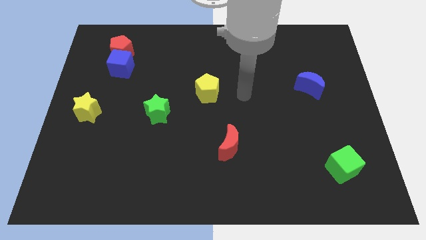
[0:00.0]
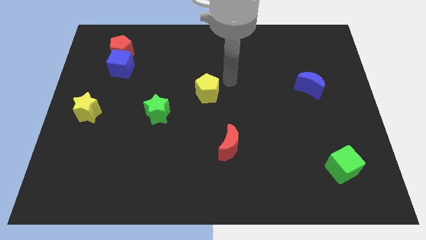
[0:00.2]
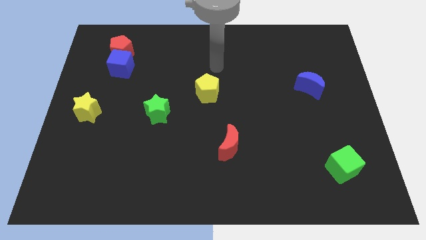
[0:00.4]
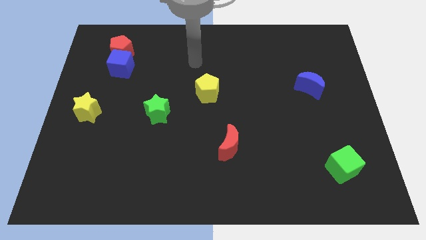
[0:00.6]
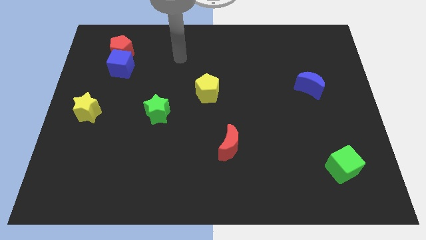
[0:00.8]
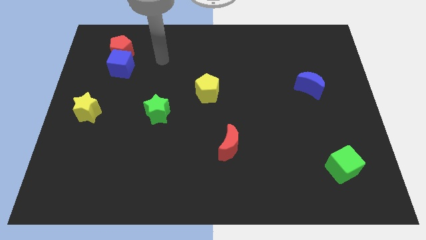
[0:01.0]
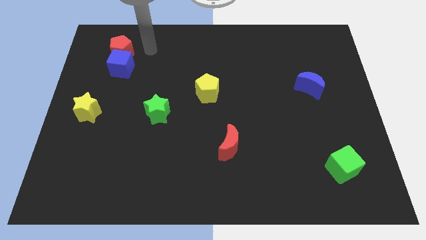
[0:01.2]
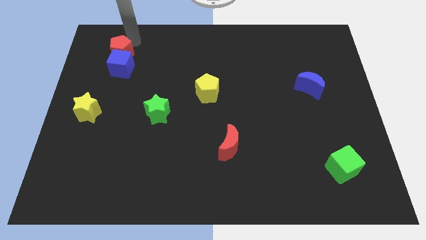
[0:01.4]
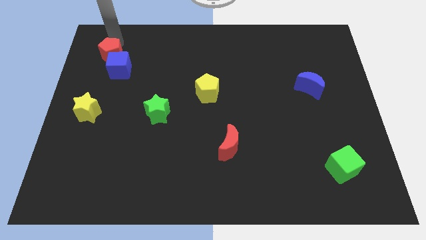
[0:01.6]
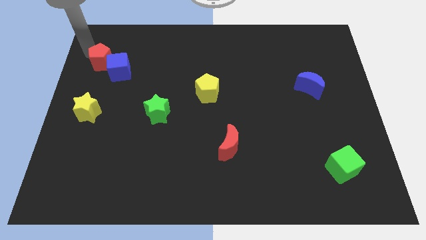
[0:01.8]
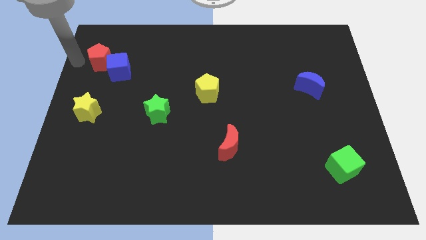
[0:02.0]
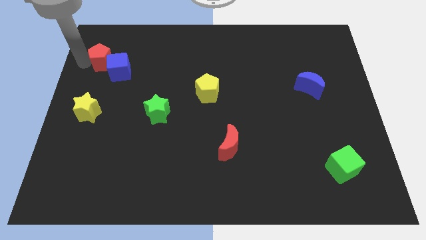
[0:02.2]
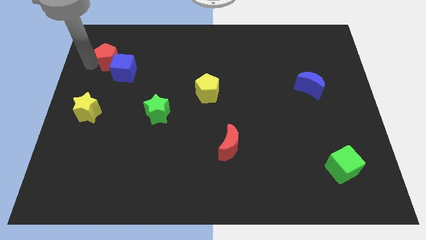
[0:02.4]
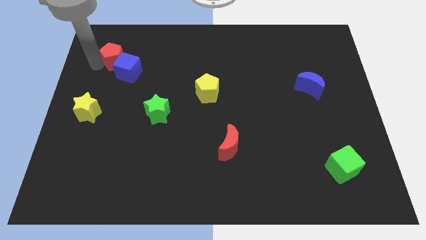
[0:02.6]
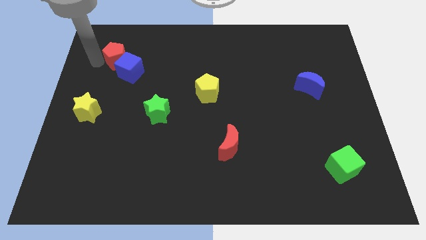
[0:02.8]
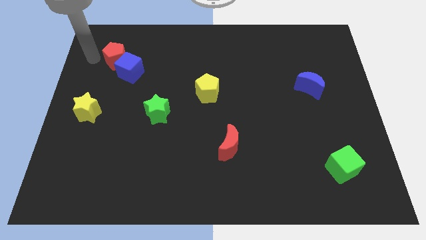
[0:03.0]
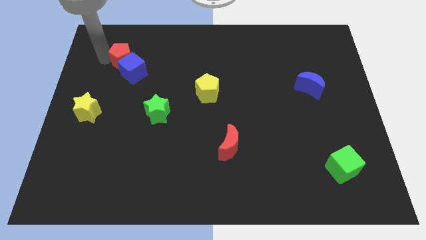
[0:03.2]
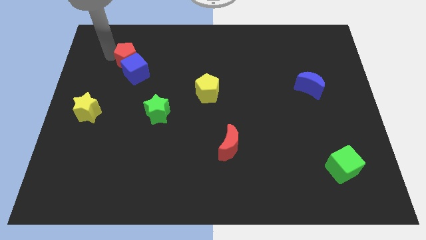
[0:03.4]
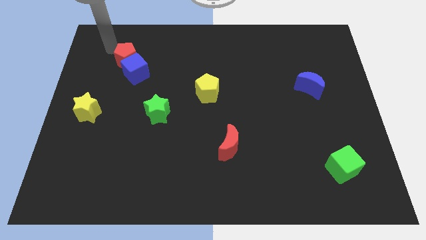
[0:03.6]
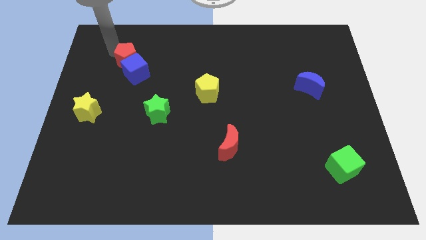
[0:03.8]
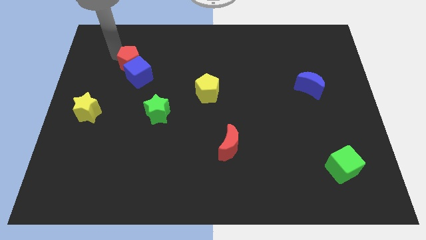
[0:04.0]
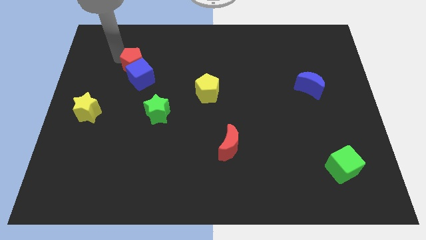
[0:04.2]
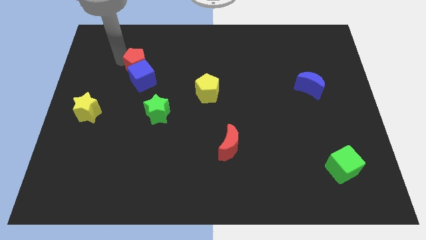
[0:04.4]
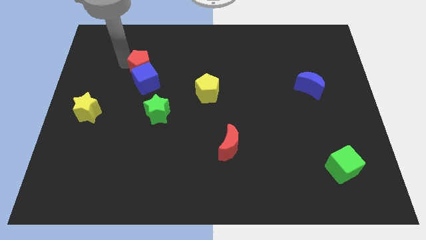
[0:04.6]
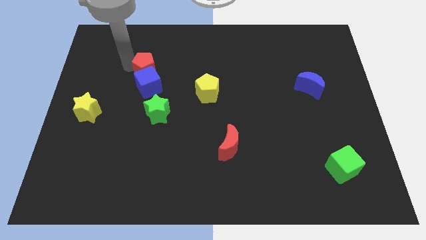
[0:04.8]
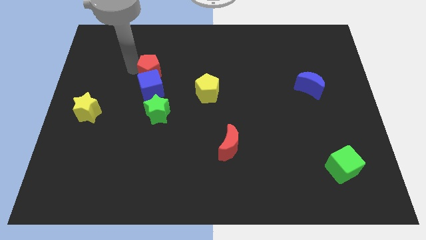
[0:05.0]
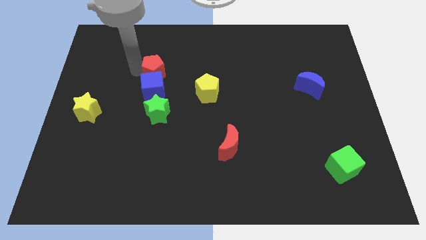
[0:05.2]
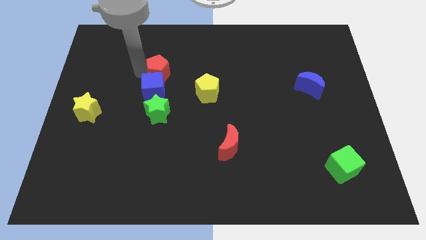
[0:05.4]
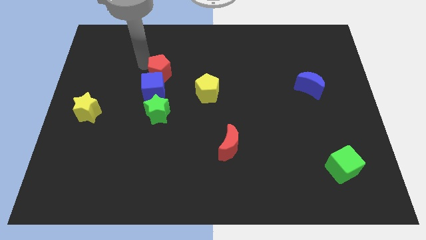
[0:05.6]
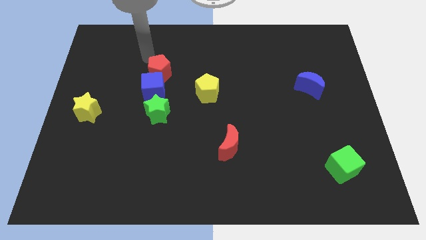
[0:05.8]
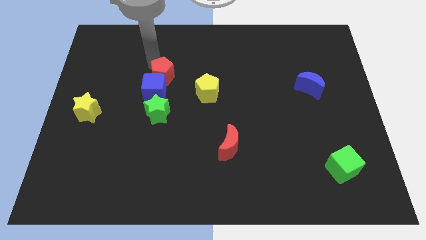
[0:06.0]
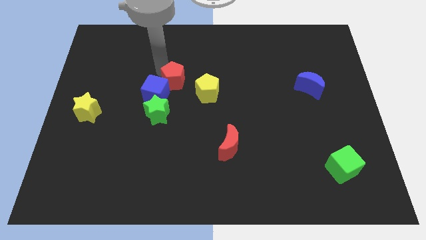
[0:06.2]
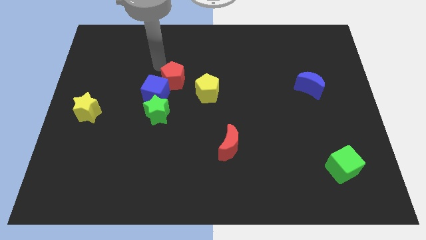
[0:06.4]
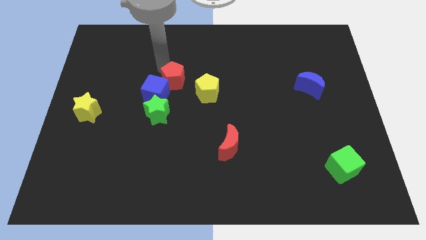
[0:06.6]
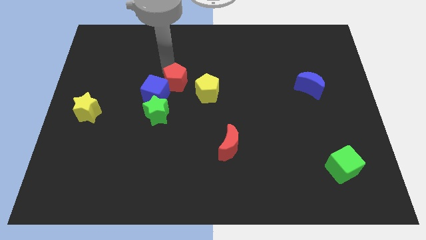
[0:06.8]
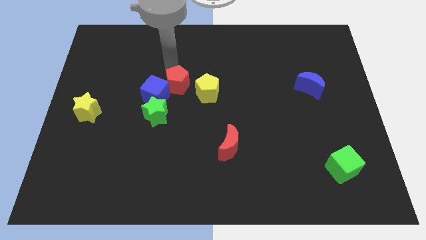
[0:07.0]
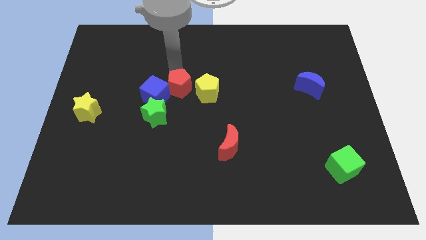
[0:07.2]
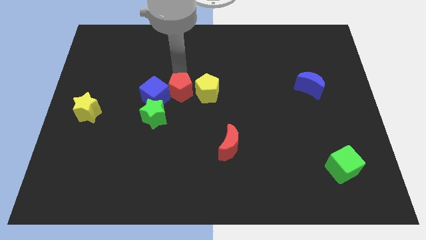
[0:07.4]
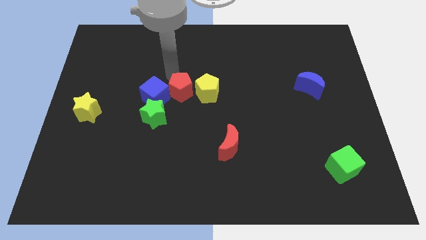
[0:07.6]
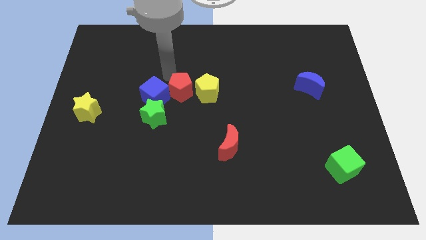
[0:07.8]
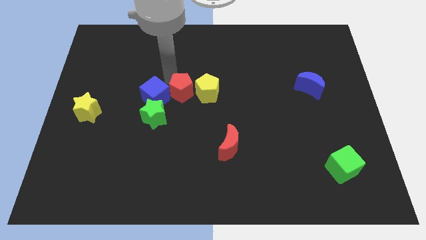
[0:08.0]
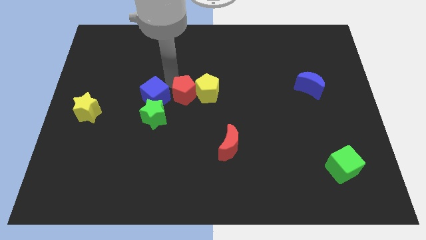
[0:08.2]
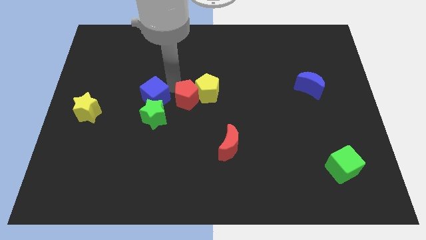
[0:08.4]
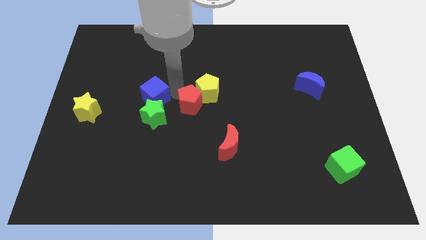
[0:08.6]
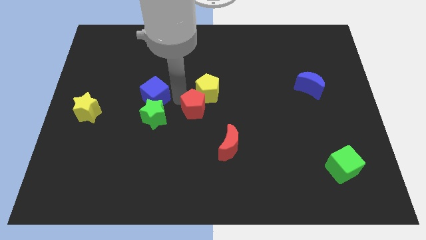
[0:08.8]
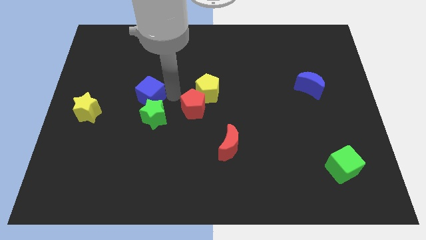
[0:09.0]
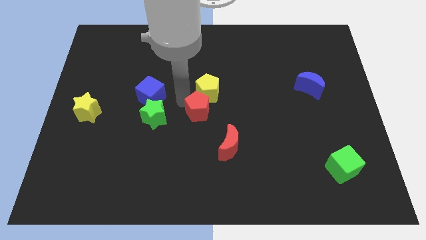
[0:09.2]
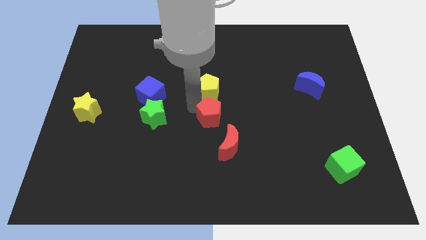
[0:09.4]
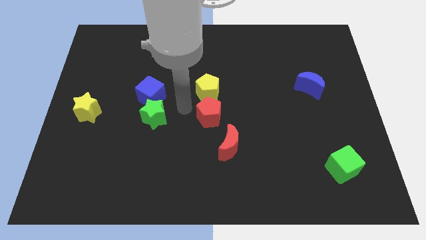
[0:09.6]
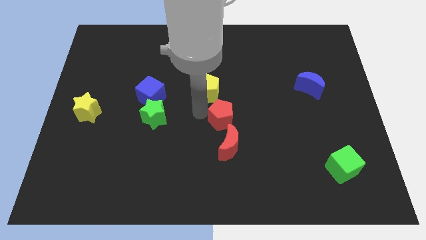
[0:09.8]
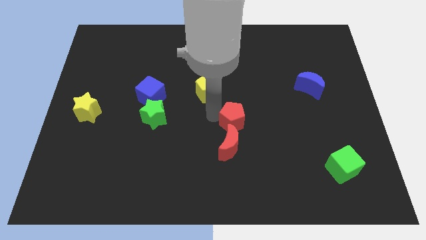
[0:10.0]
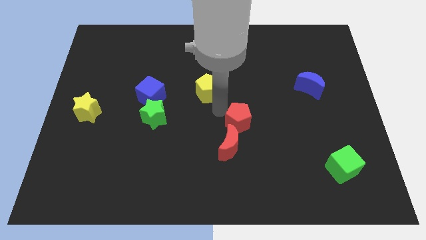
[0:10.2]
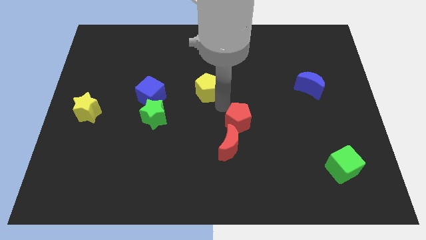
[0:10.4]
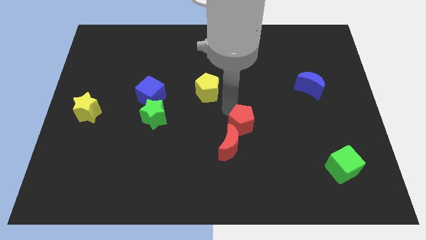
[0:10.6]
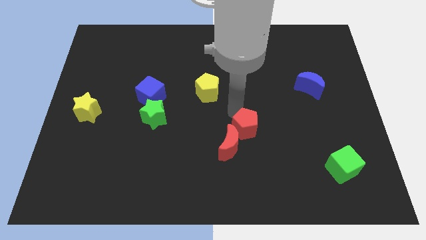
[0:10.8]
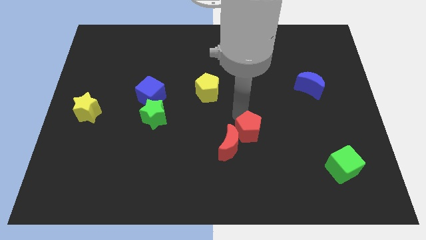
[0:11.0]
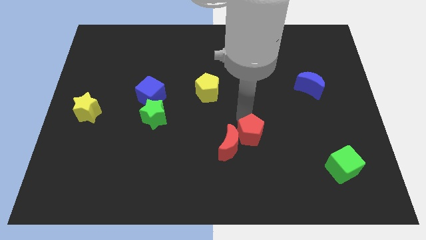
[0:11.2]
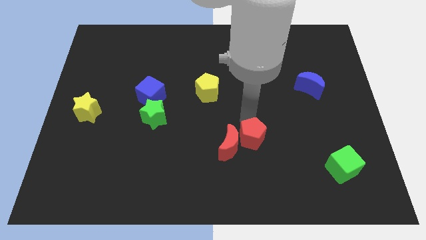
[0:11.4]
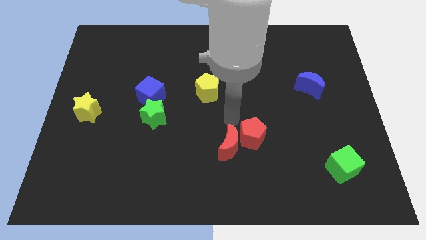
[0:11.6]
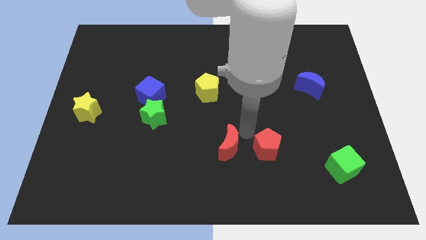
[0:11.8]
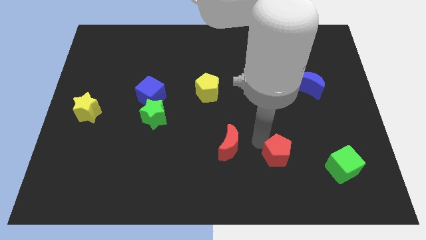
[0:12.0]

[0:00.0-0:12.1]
slide the red pentagon to the left of the green cube
